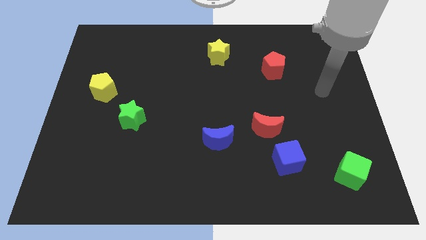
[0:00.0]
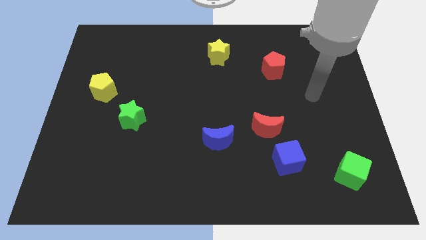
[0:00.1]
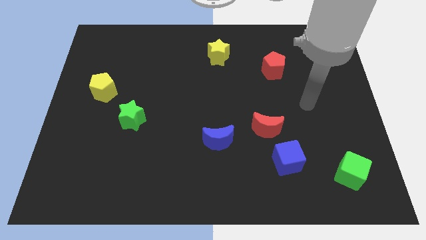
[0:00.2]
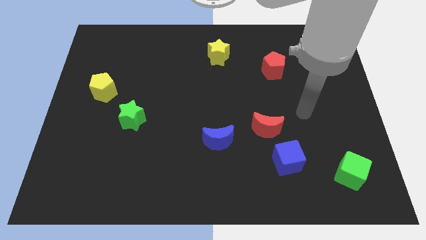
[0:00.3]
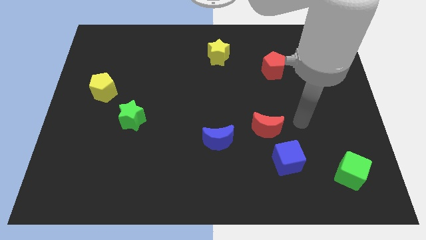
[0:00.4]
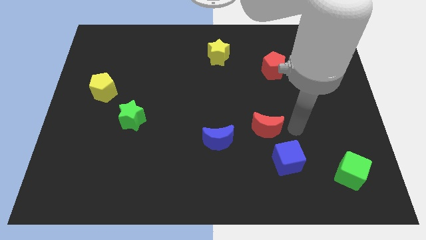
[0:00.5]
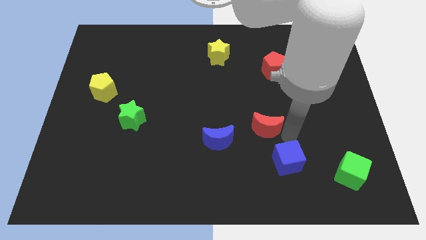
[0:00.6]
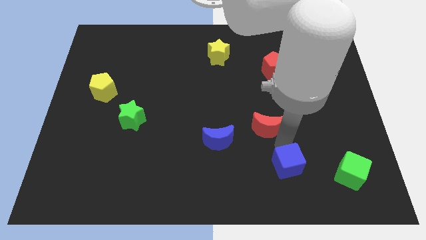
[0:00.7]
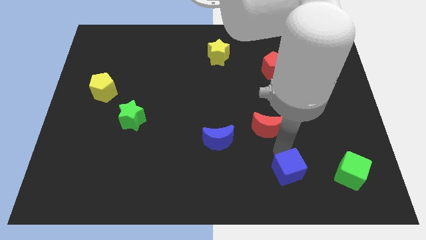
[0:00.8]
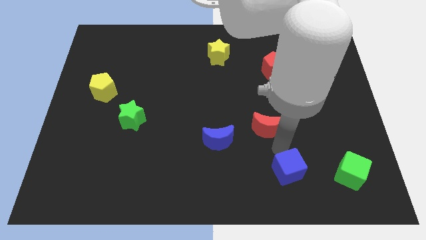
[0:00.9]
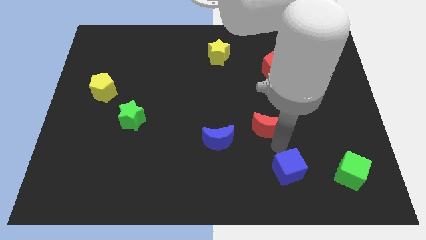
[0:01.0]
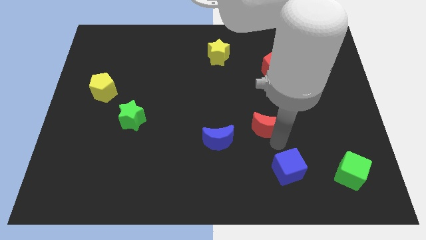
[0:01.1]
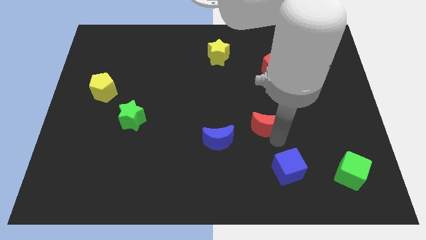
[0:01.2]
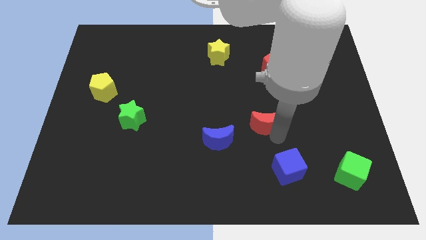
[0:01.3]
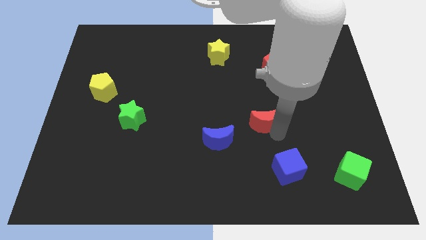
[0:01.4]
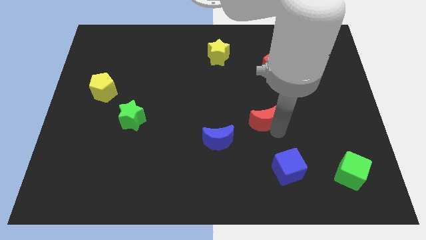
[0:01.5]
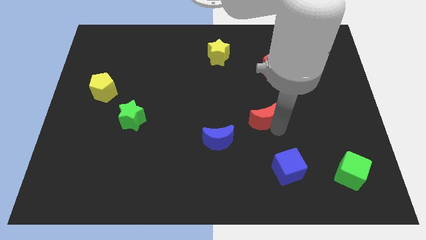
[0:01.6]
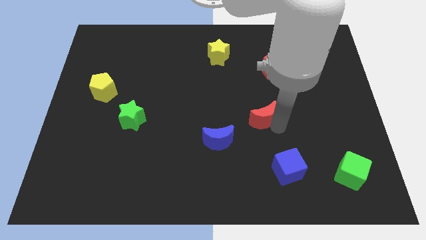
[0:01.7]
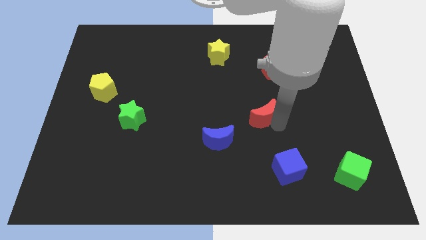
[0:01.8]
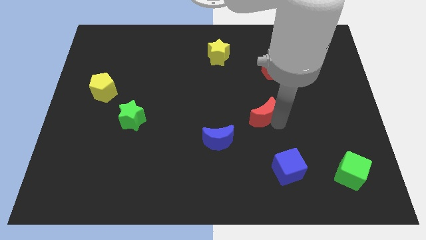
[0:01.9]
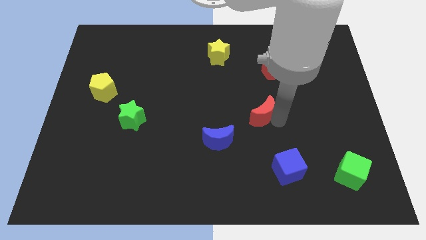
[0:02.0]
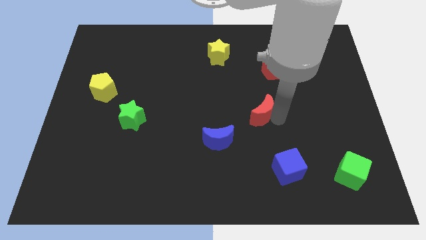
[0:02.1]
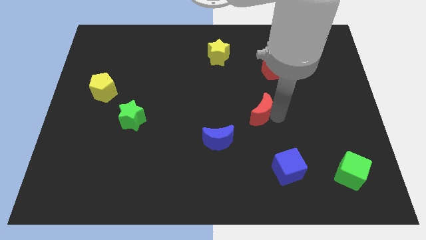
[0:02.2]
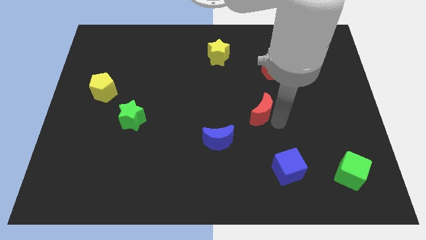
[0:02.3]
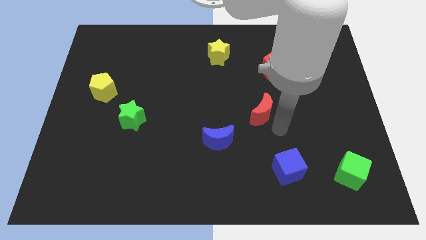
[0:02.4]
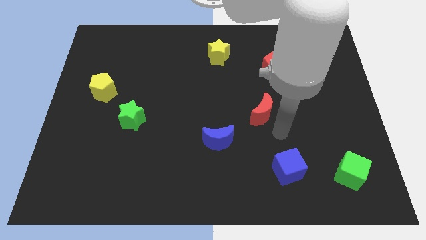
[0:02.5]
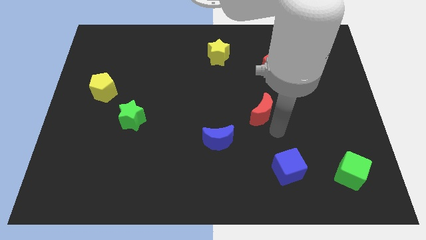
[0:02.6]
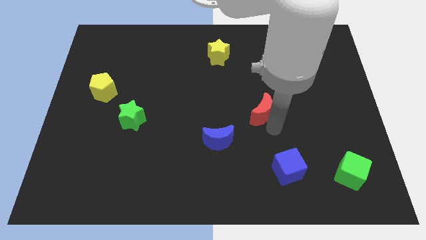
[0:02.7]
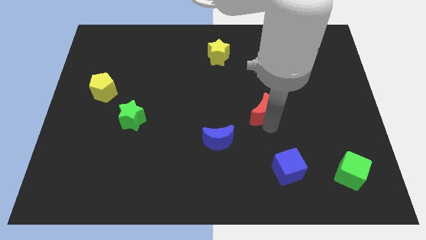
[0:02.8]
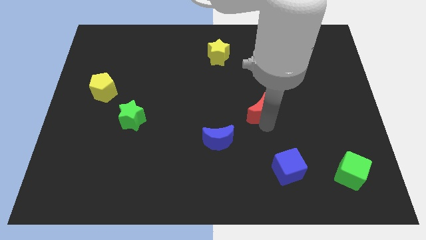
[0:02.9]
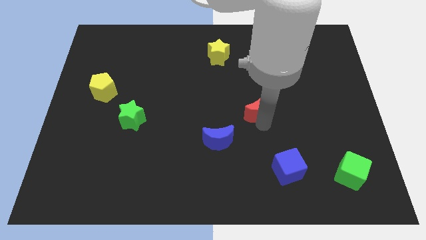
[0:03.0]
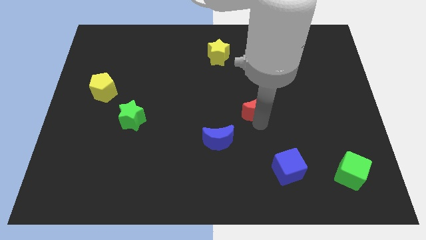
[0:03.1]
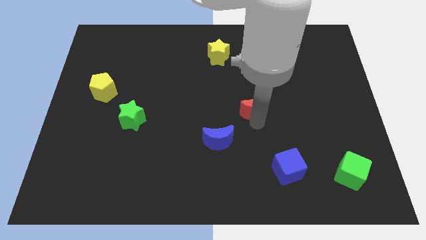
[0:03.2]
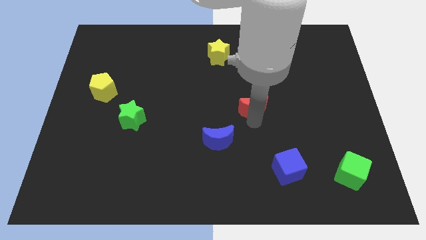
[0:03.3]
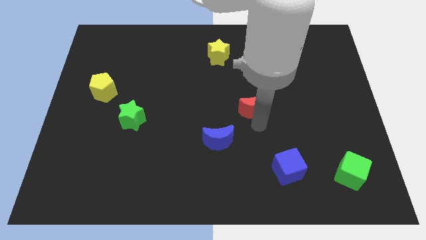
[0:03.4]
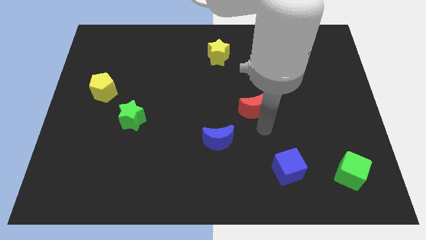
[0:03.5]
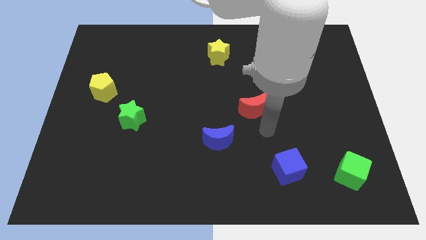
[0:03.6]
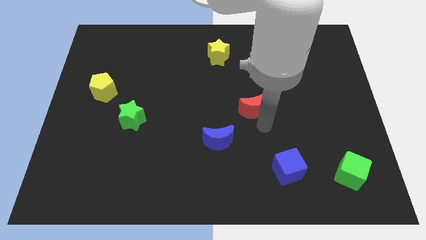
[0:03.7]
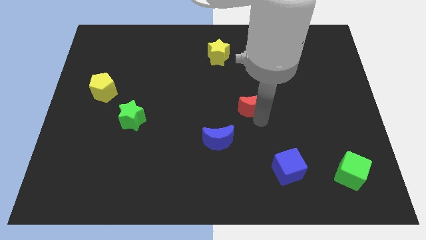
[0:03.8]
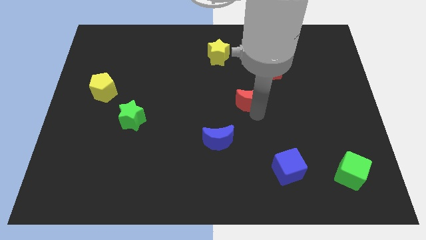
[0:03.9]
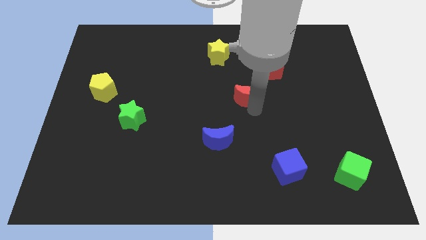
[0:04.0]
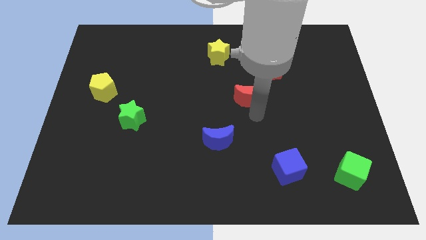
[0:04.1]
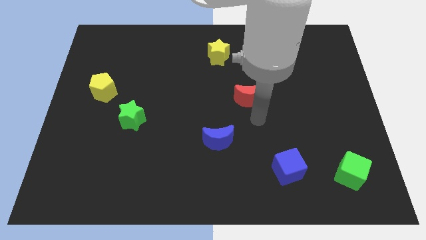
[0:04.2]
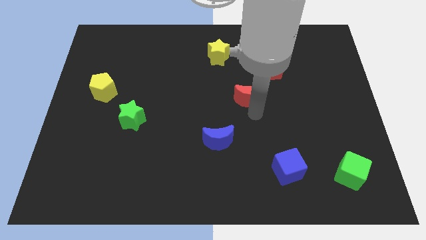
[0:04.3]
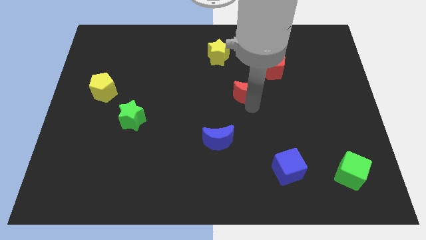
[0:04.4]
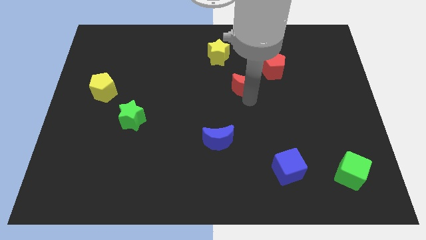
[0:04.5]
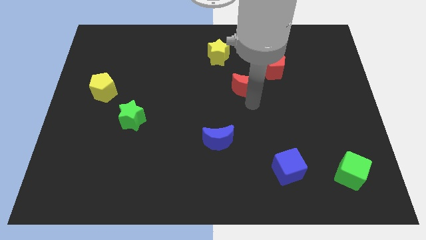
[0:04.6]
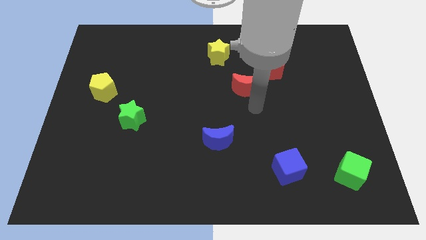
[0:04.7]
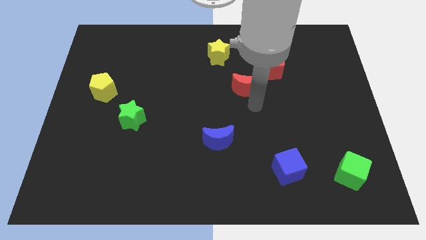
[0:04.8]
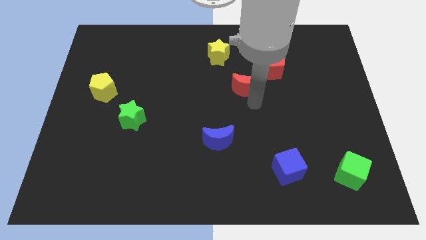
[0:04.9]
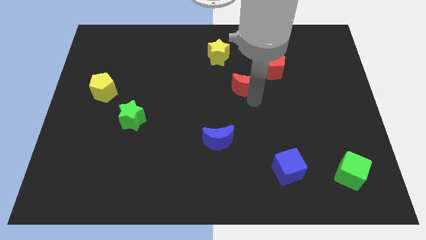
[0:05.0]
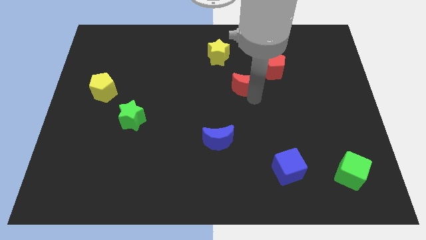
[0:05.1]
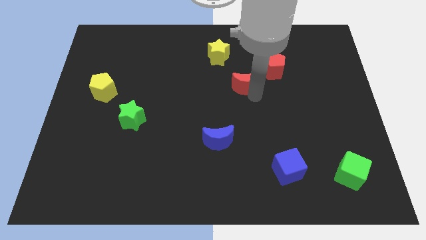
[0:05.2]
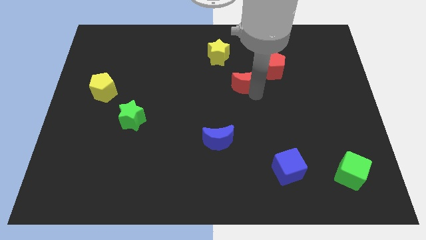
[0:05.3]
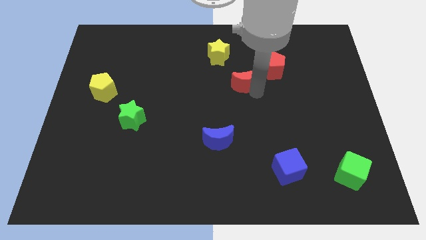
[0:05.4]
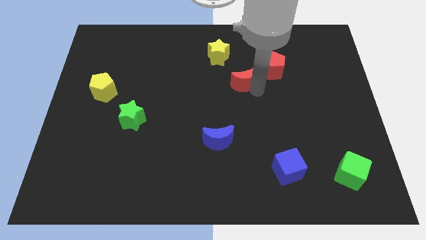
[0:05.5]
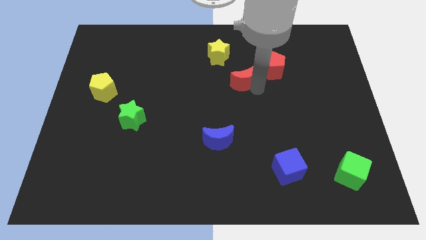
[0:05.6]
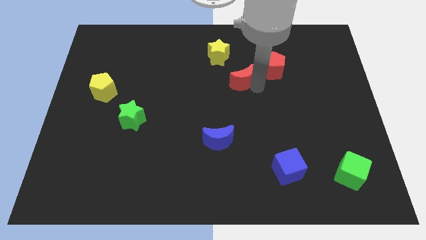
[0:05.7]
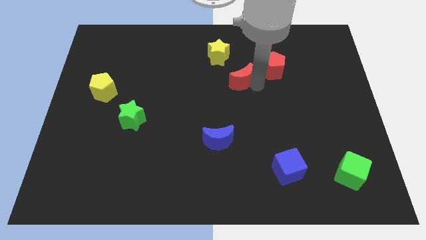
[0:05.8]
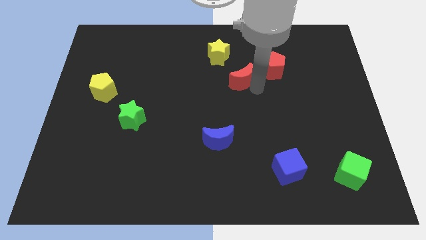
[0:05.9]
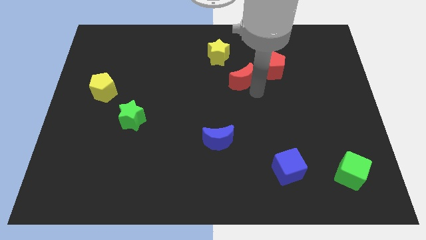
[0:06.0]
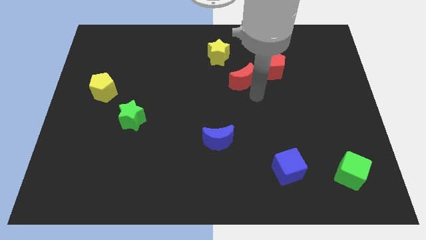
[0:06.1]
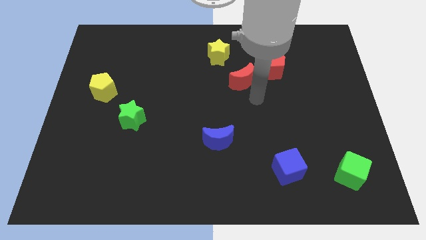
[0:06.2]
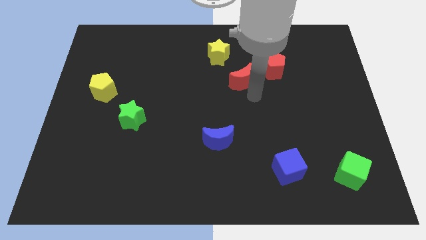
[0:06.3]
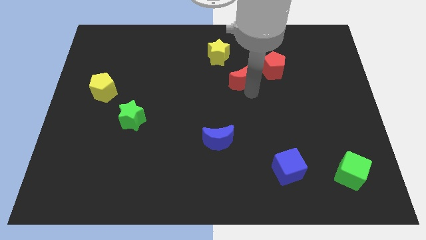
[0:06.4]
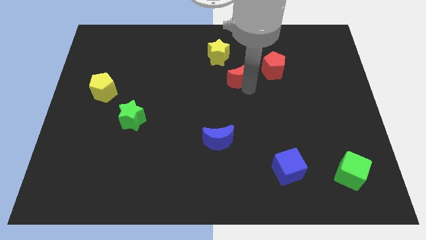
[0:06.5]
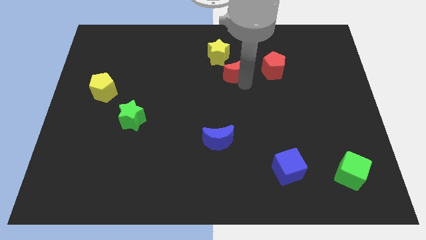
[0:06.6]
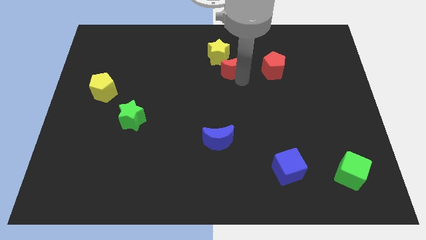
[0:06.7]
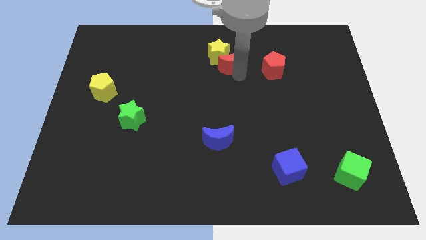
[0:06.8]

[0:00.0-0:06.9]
move the red moon next to the yellow star

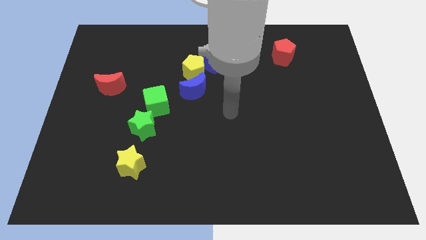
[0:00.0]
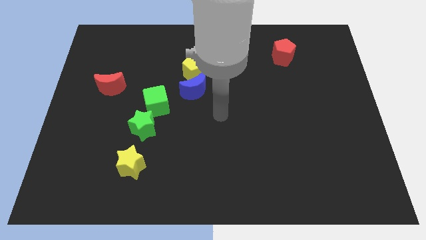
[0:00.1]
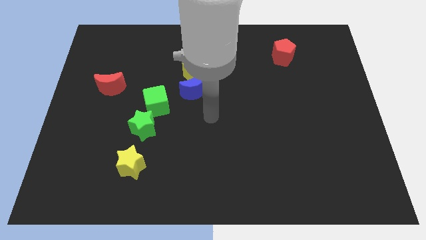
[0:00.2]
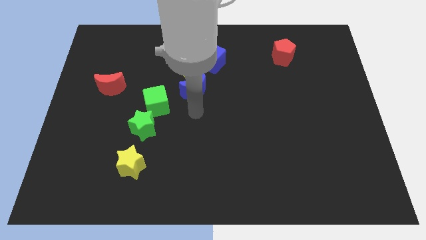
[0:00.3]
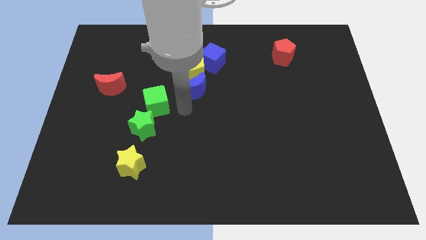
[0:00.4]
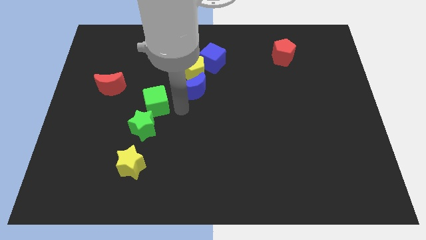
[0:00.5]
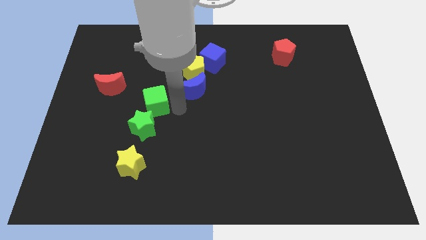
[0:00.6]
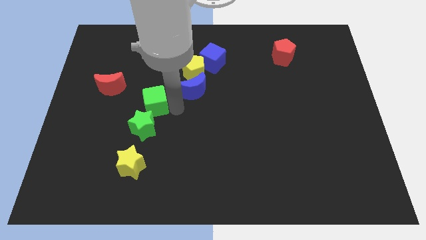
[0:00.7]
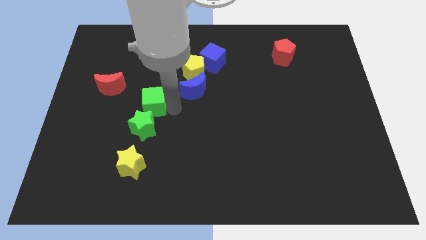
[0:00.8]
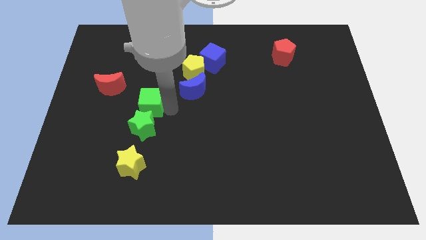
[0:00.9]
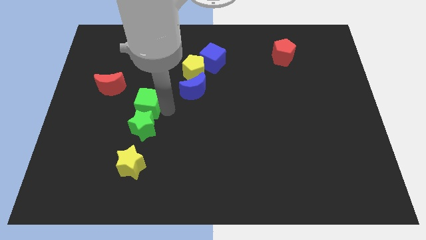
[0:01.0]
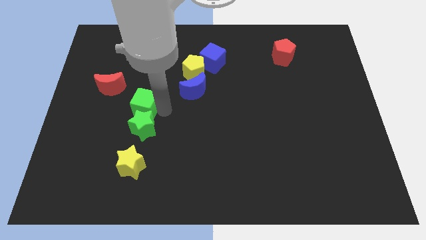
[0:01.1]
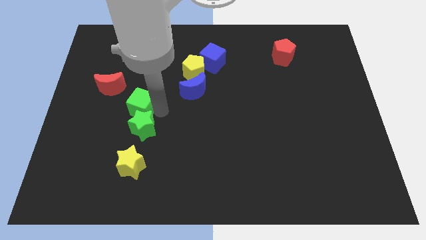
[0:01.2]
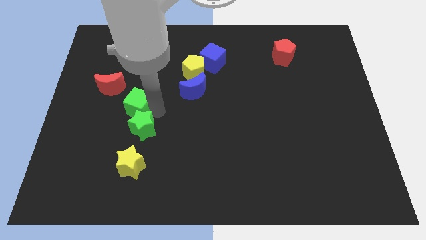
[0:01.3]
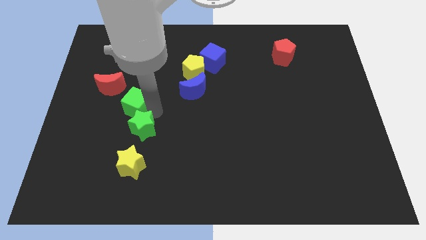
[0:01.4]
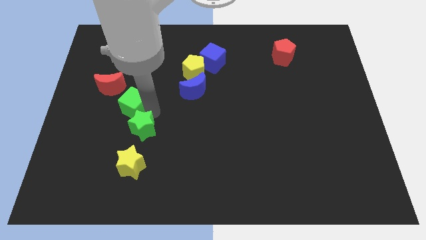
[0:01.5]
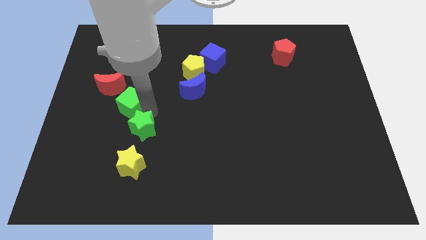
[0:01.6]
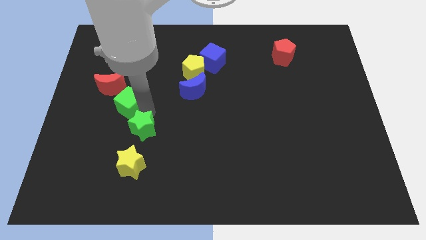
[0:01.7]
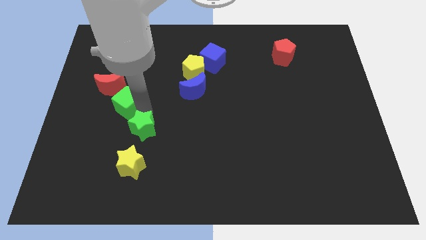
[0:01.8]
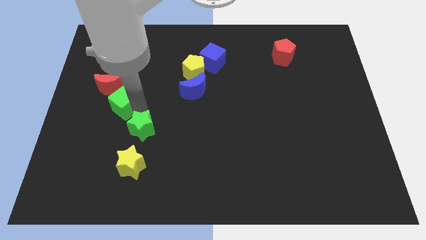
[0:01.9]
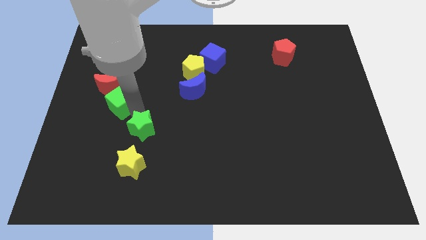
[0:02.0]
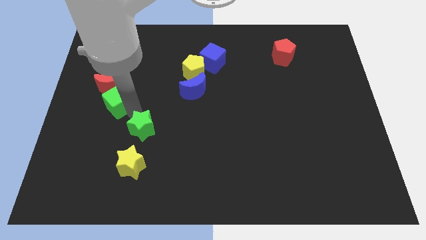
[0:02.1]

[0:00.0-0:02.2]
move the green cube close to the red moon
